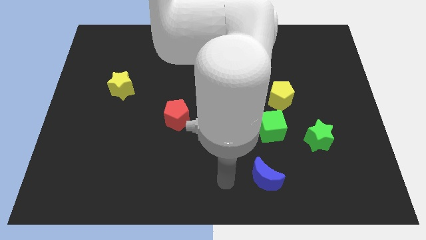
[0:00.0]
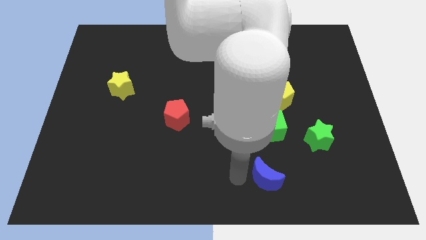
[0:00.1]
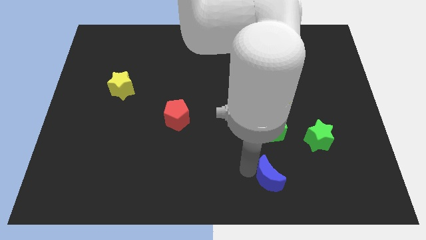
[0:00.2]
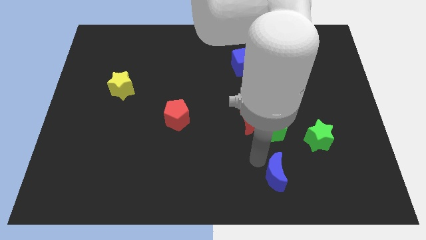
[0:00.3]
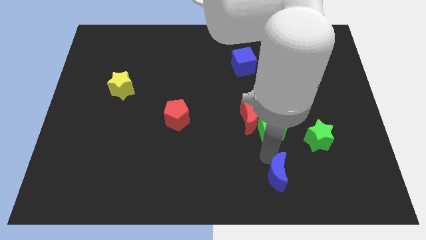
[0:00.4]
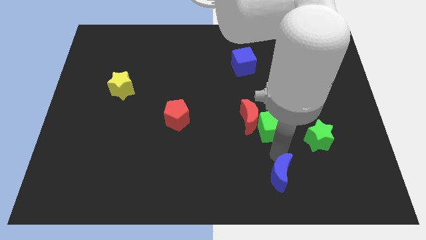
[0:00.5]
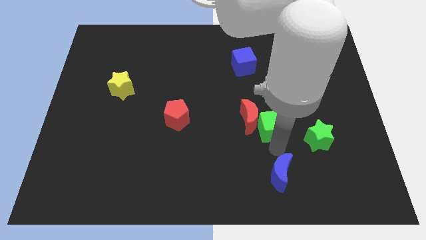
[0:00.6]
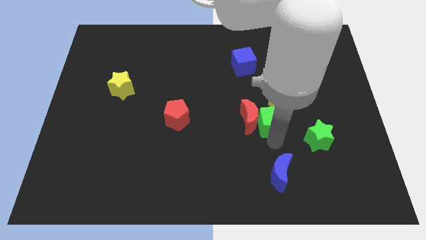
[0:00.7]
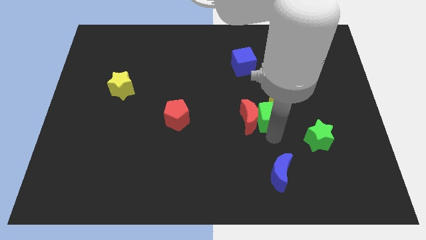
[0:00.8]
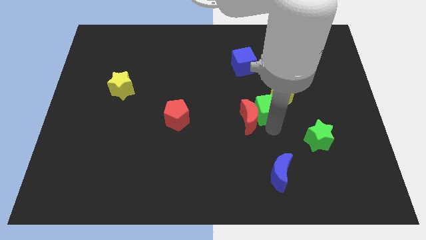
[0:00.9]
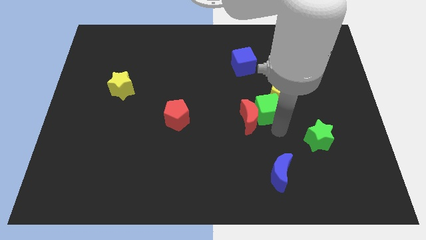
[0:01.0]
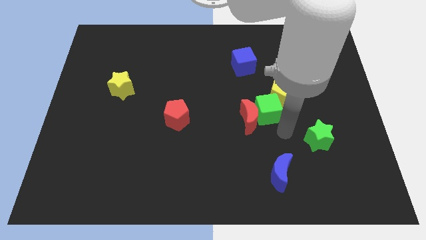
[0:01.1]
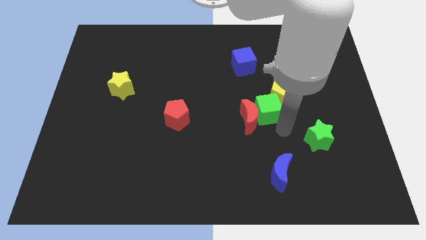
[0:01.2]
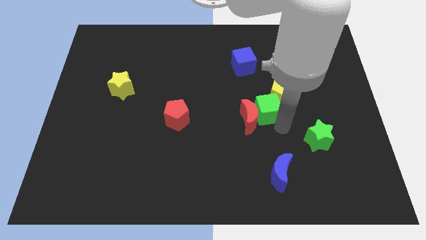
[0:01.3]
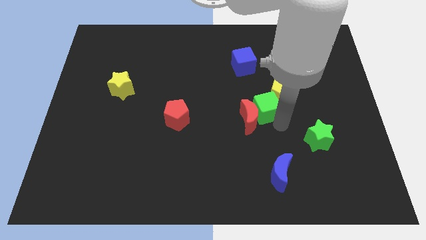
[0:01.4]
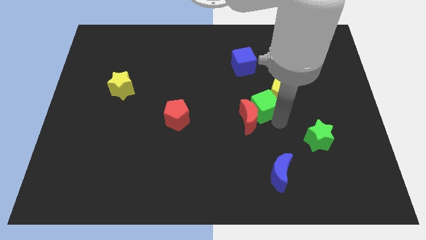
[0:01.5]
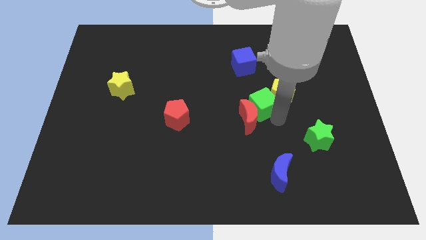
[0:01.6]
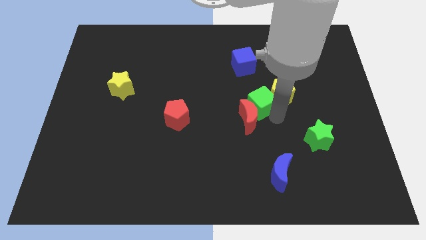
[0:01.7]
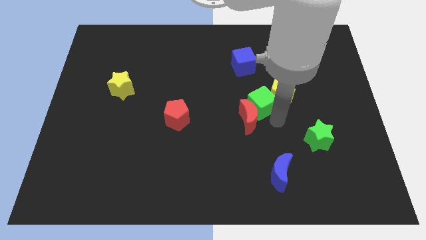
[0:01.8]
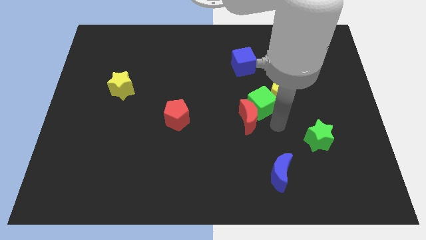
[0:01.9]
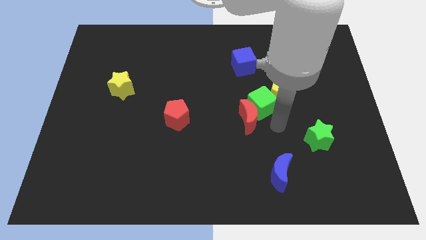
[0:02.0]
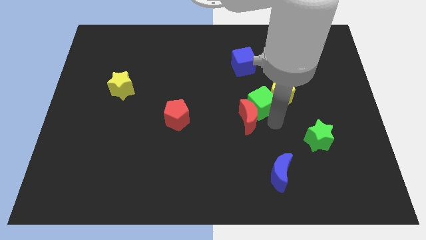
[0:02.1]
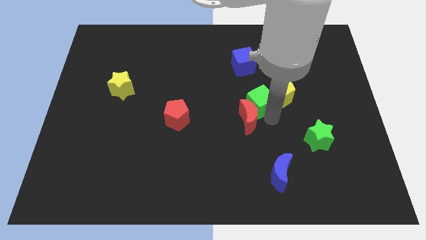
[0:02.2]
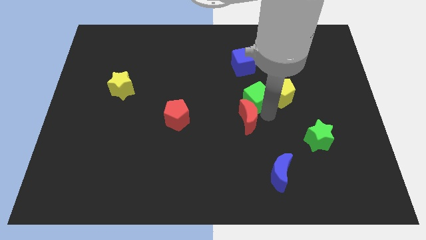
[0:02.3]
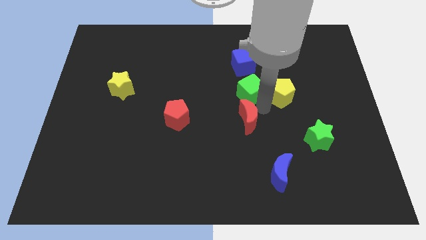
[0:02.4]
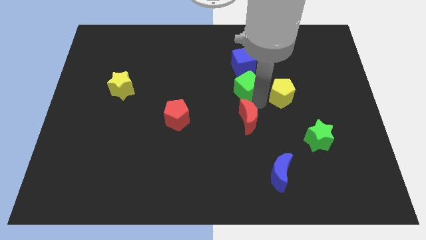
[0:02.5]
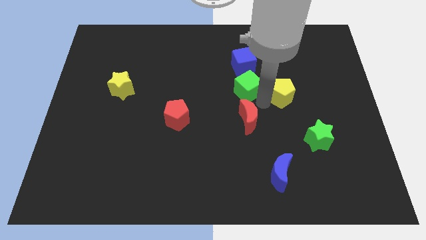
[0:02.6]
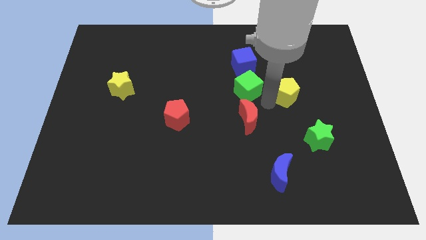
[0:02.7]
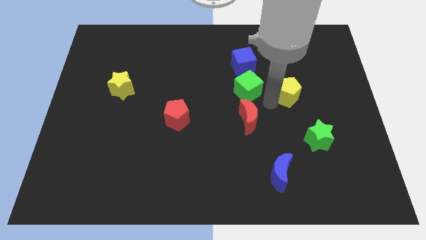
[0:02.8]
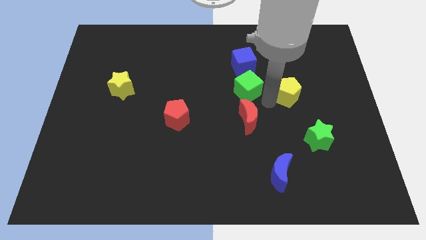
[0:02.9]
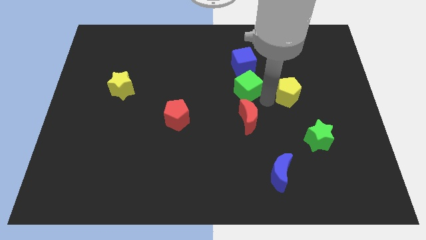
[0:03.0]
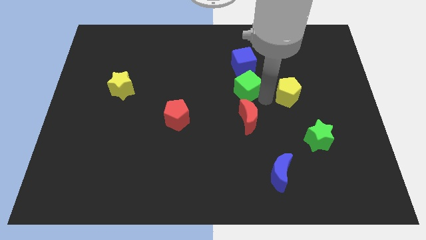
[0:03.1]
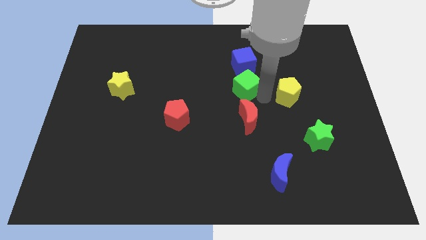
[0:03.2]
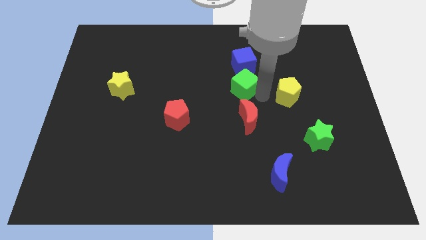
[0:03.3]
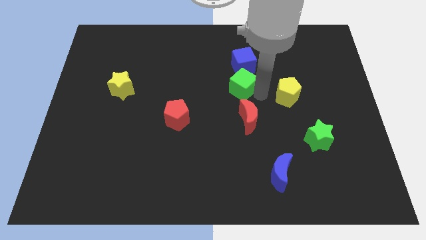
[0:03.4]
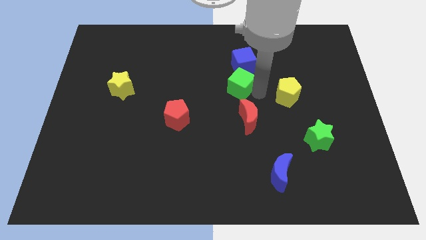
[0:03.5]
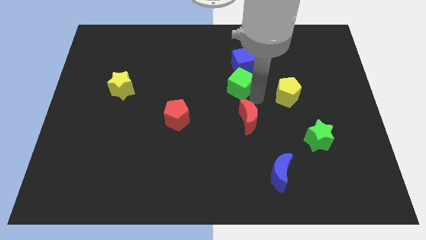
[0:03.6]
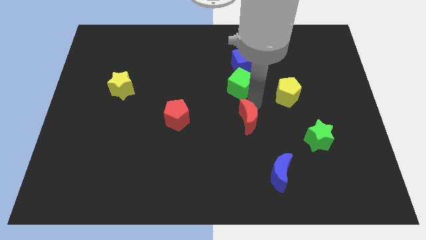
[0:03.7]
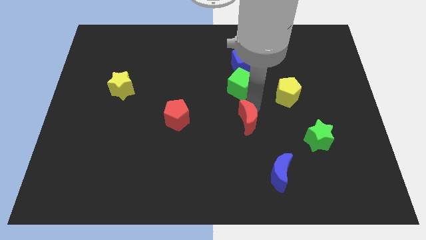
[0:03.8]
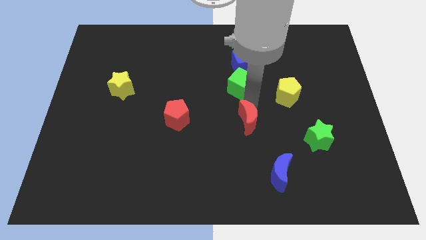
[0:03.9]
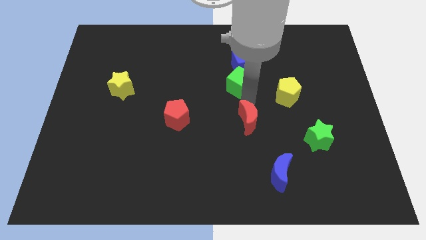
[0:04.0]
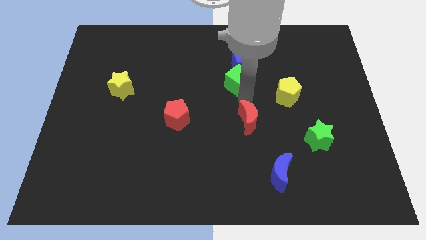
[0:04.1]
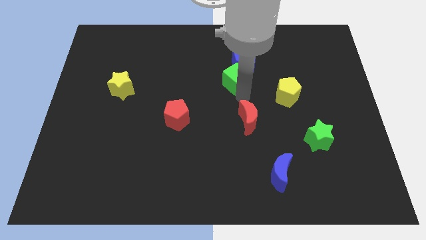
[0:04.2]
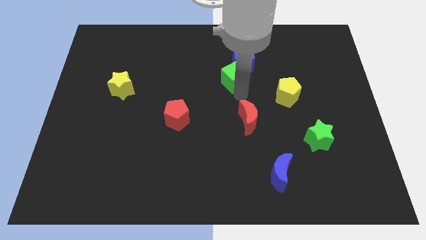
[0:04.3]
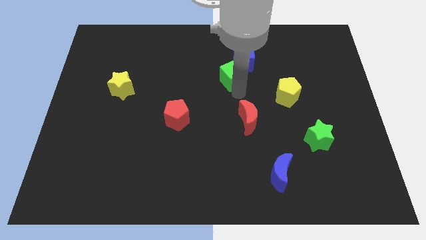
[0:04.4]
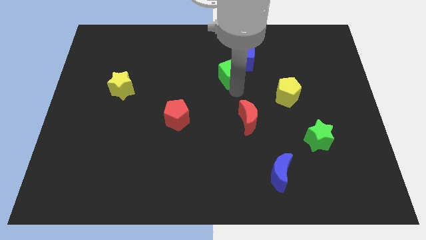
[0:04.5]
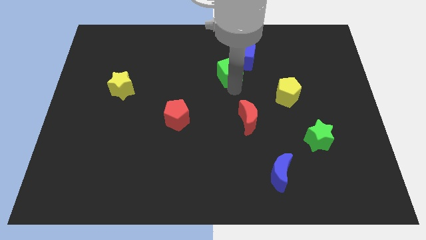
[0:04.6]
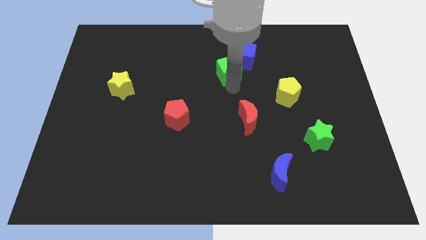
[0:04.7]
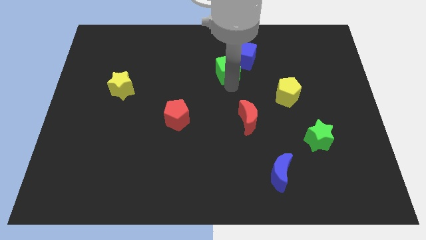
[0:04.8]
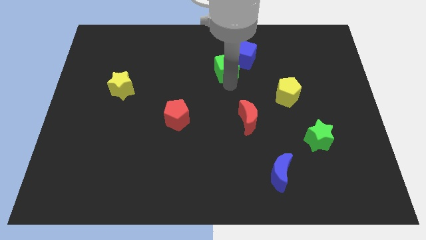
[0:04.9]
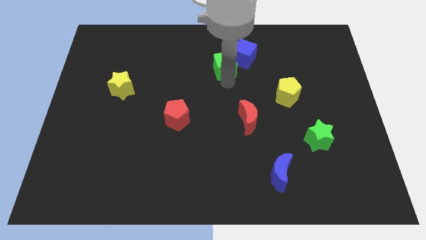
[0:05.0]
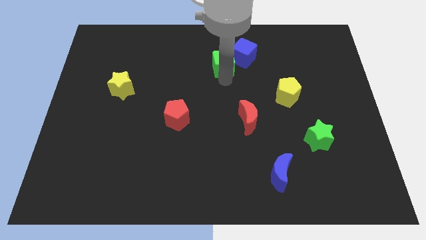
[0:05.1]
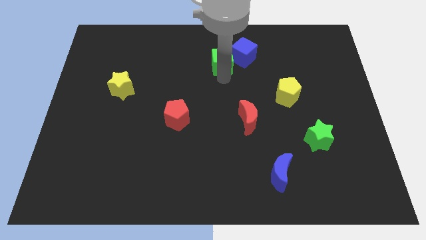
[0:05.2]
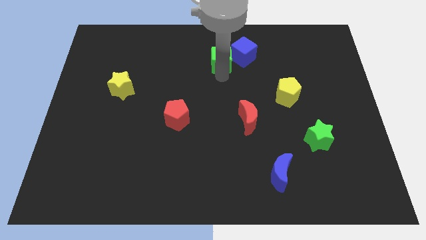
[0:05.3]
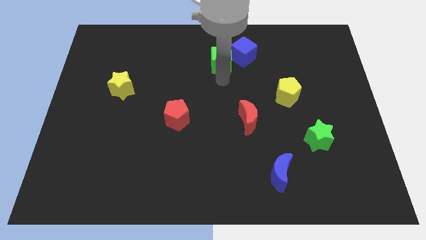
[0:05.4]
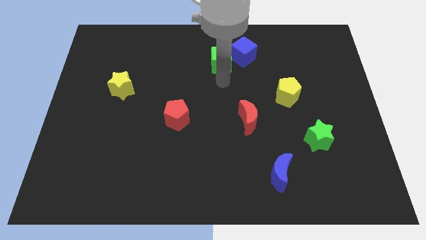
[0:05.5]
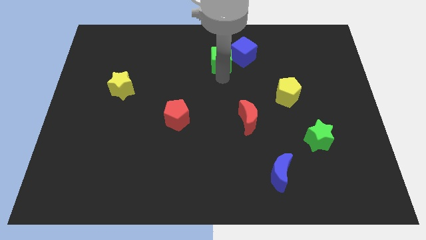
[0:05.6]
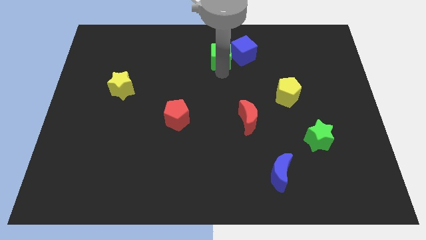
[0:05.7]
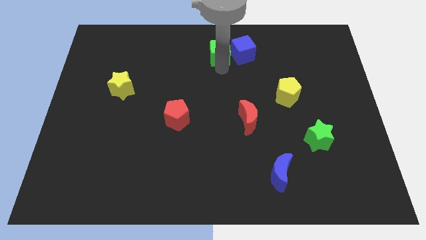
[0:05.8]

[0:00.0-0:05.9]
move the green cube to the towards your base

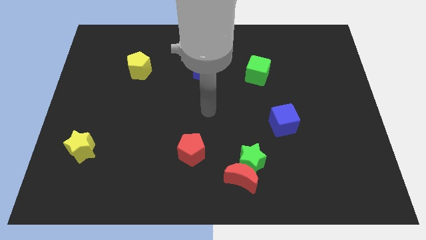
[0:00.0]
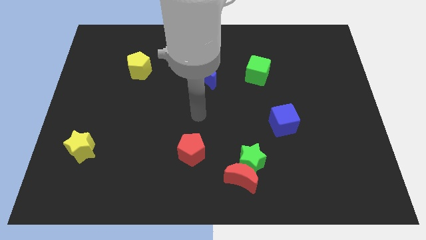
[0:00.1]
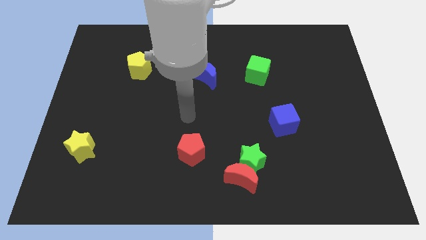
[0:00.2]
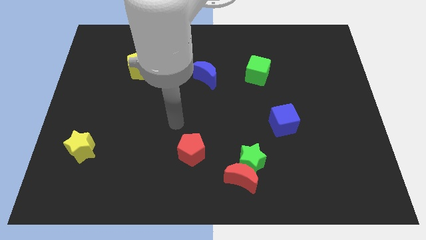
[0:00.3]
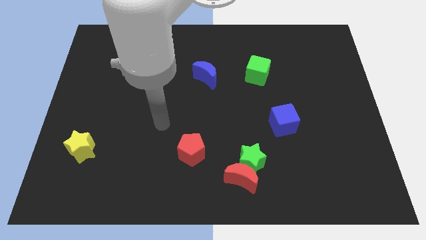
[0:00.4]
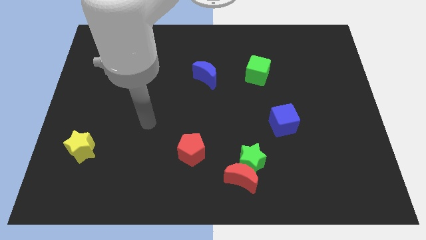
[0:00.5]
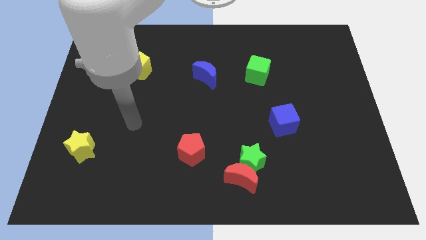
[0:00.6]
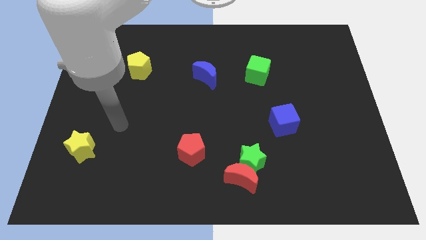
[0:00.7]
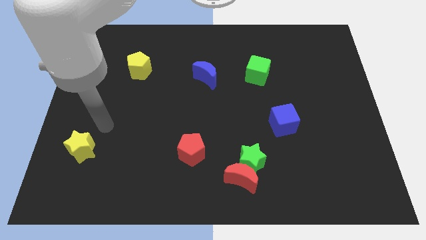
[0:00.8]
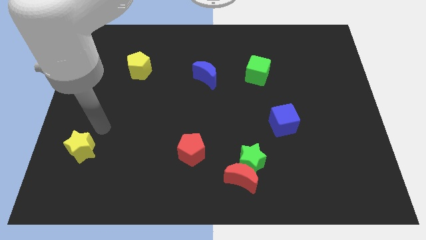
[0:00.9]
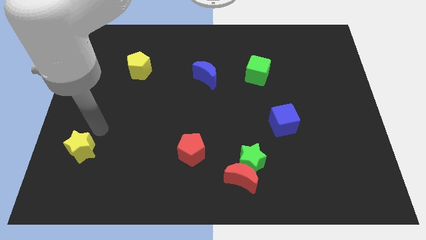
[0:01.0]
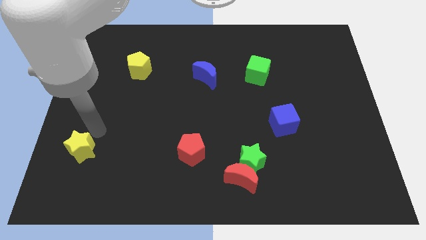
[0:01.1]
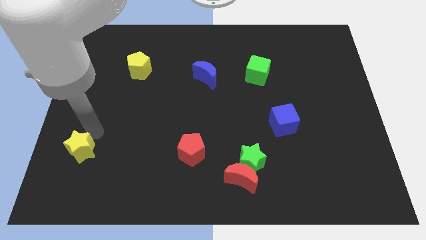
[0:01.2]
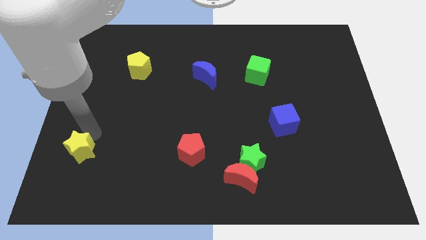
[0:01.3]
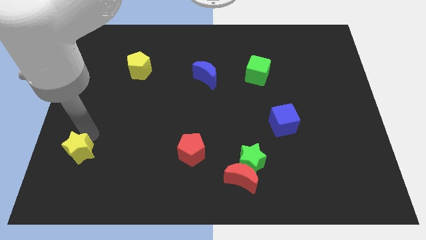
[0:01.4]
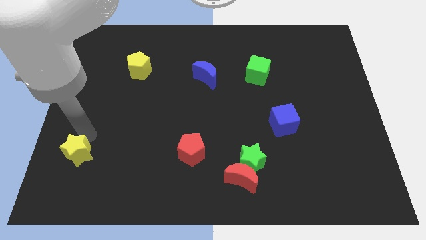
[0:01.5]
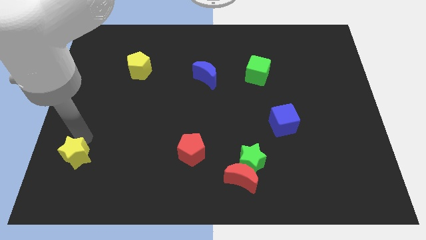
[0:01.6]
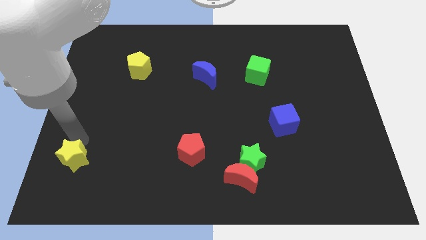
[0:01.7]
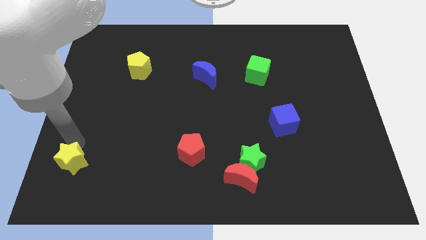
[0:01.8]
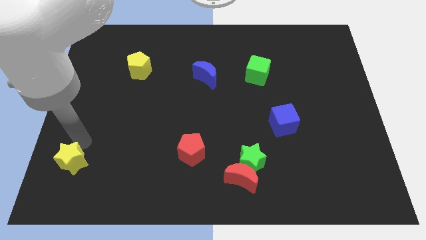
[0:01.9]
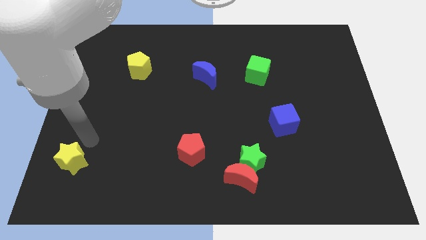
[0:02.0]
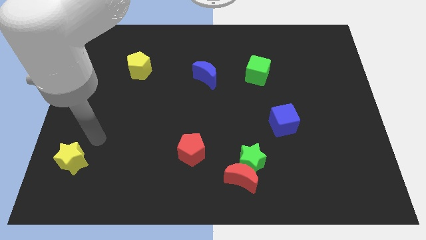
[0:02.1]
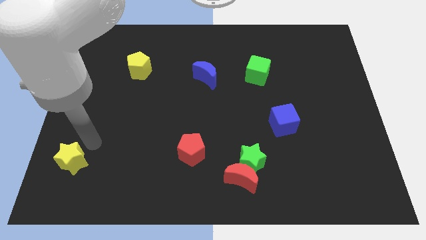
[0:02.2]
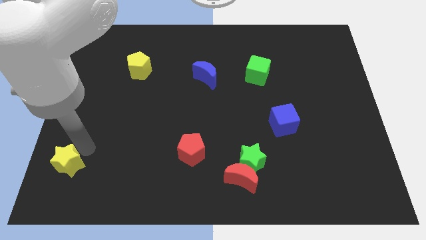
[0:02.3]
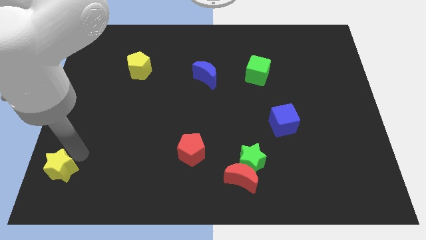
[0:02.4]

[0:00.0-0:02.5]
push the yellow star to the lower left corner
